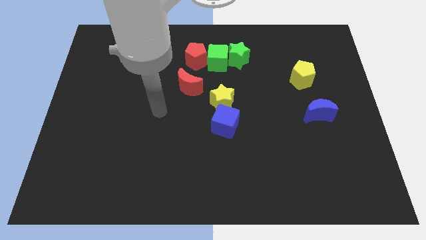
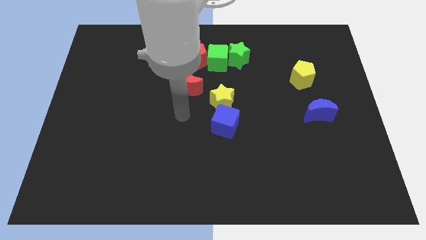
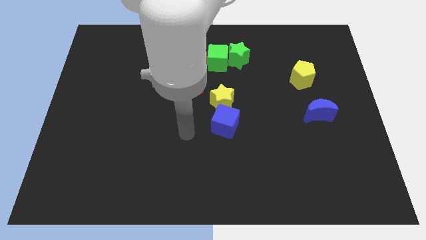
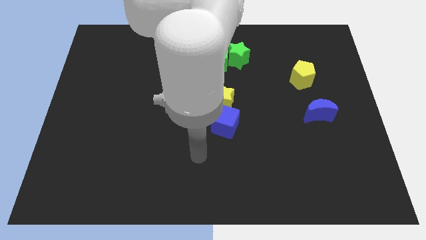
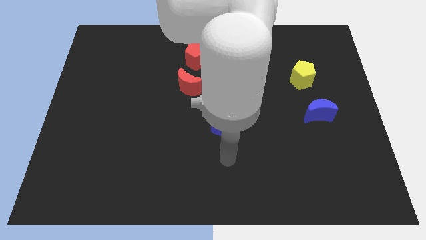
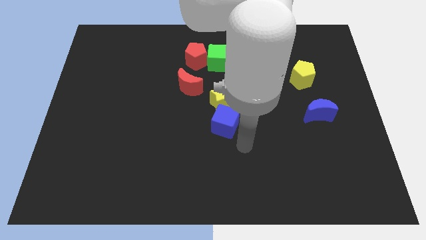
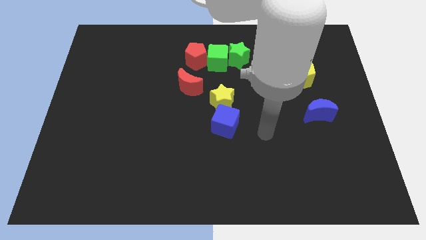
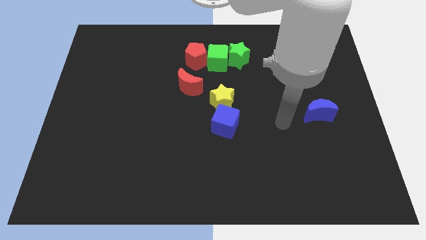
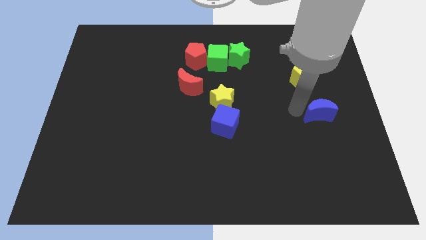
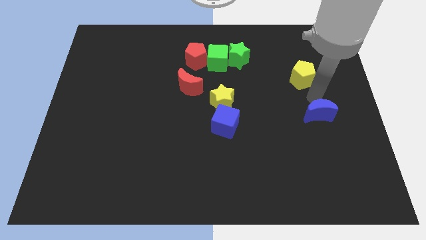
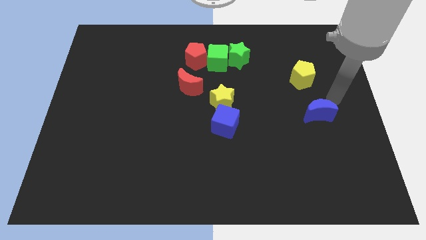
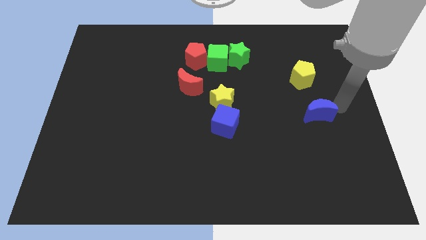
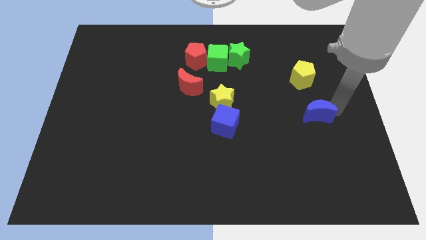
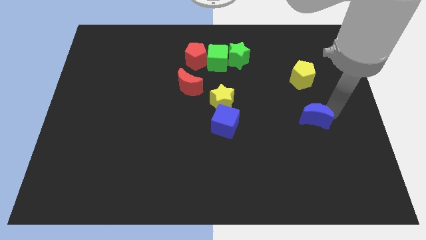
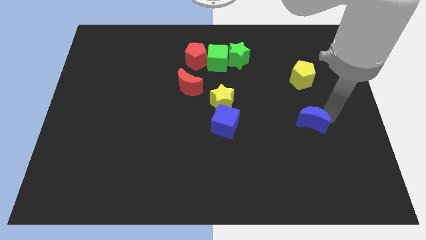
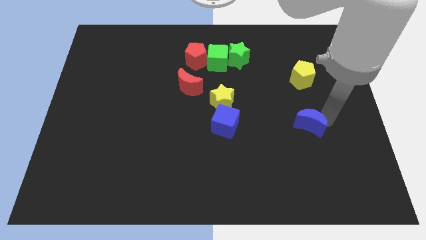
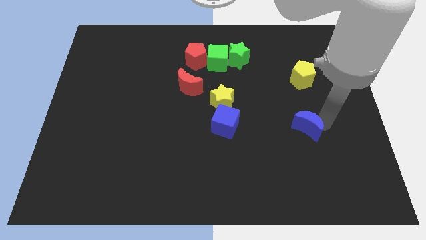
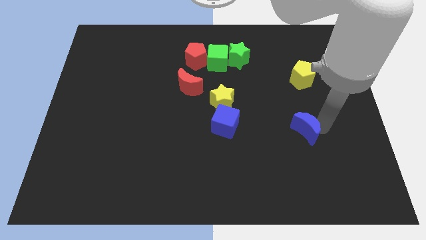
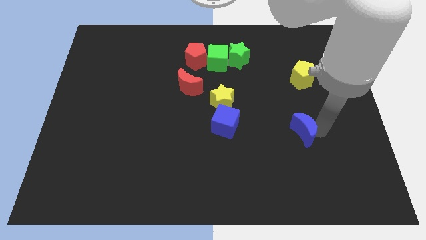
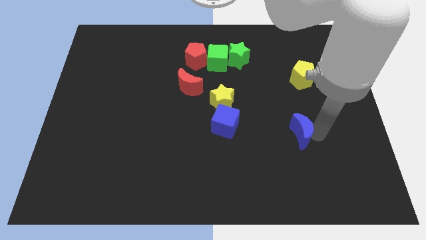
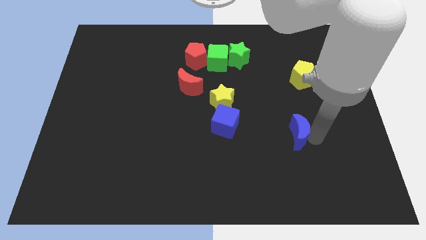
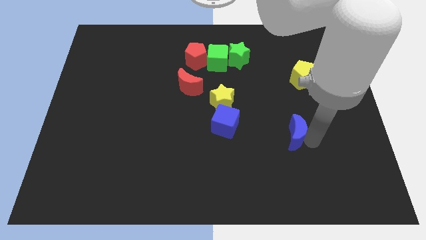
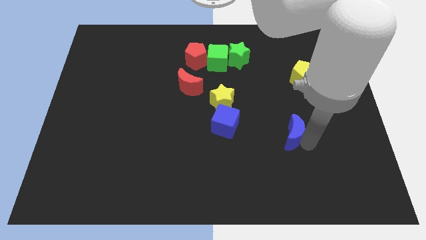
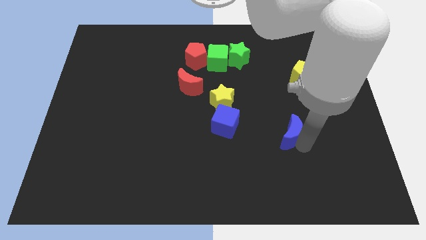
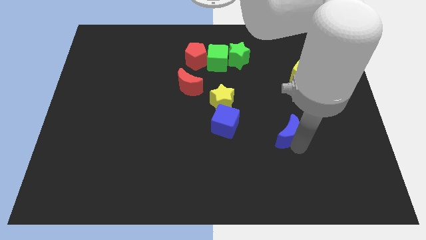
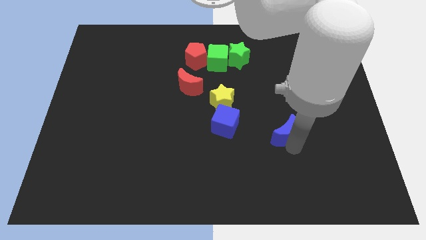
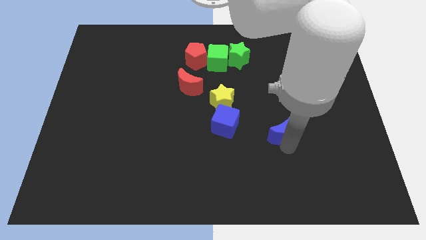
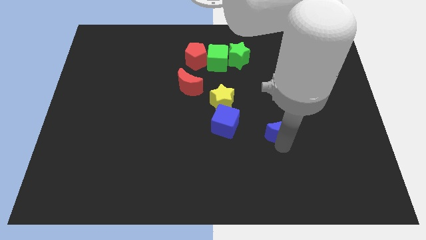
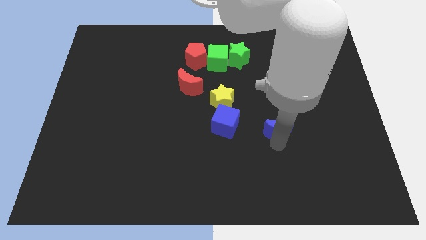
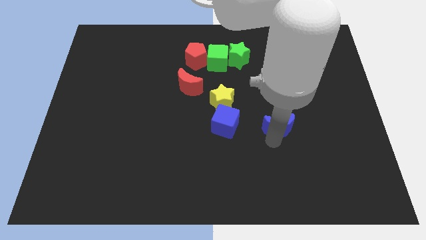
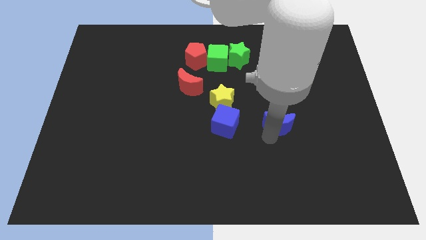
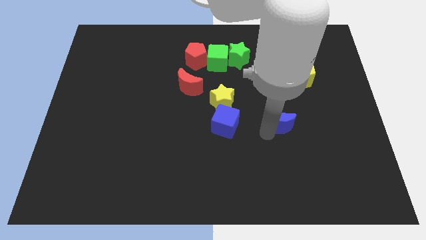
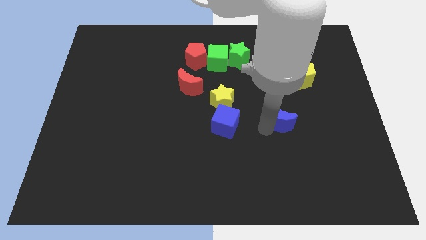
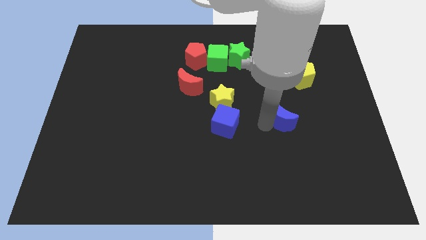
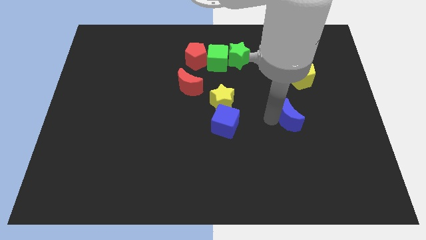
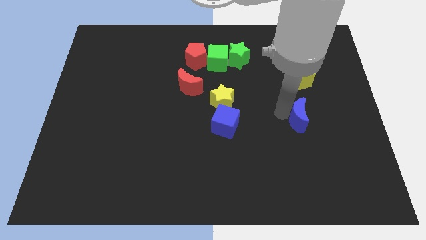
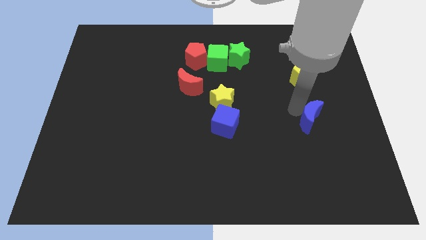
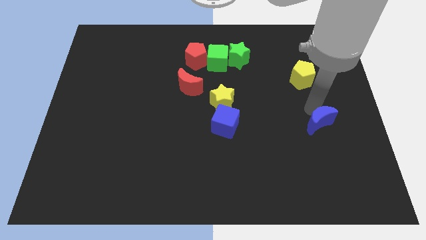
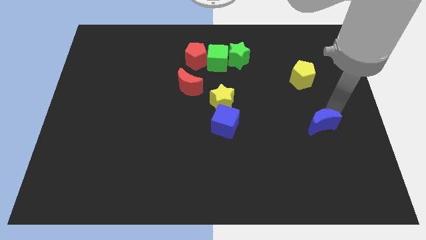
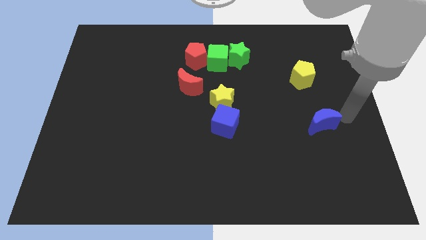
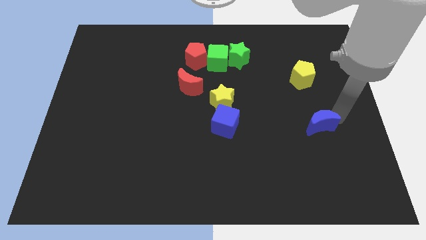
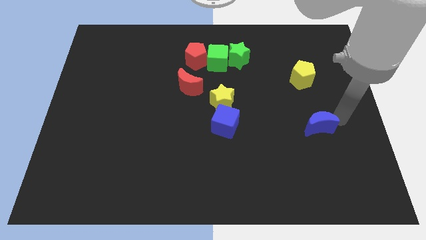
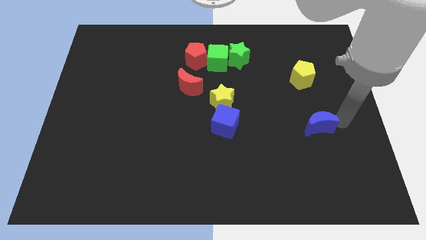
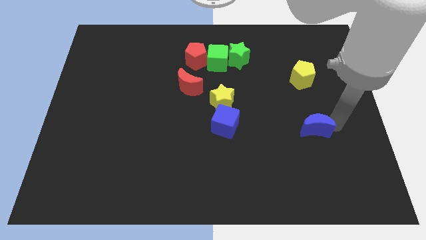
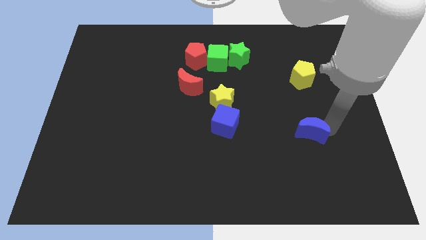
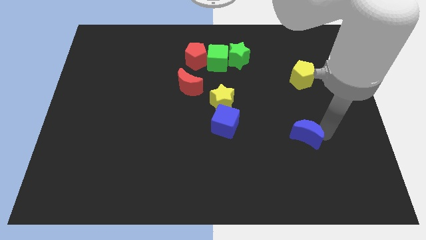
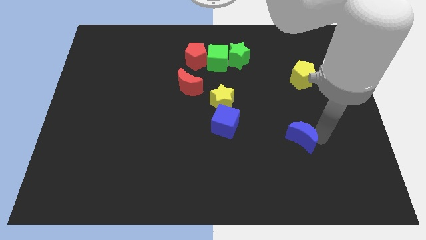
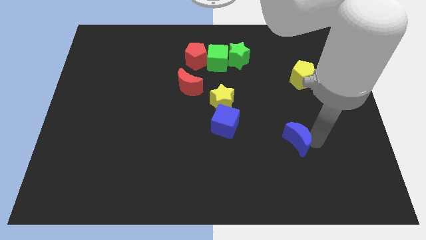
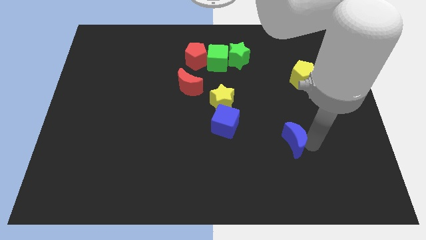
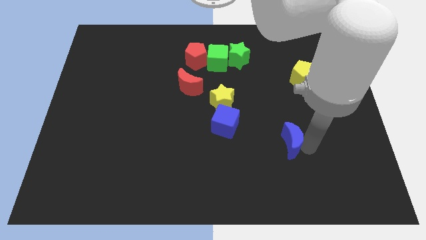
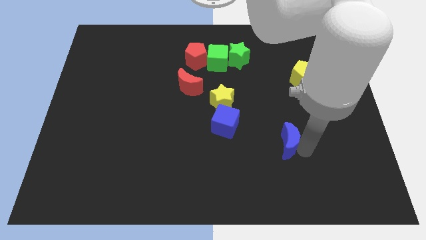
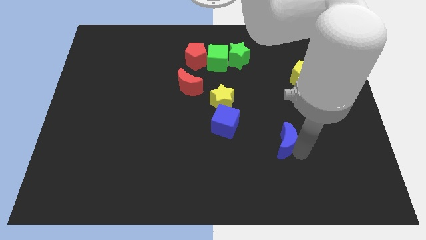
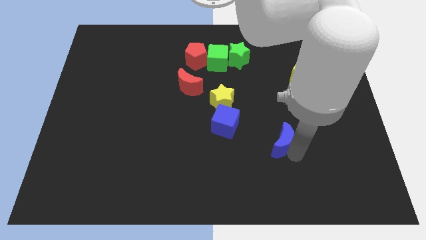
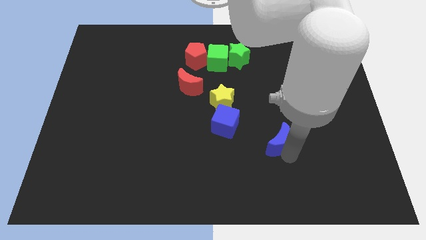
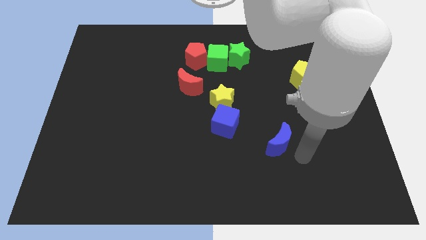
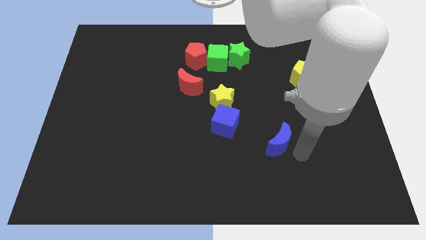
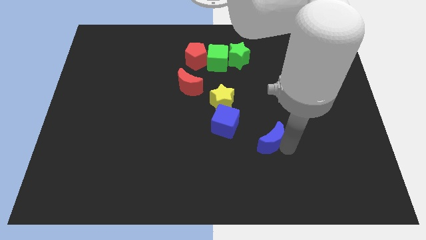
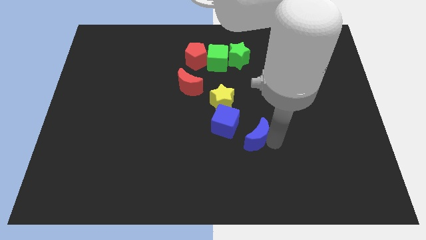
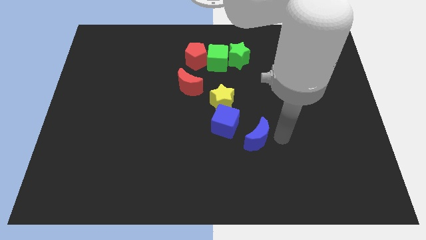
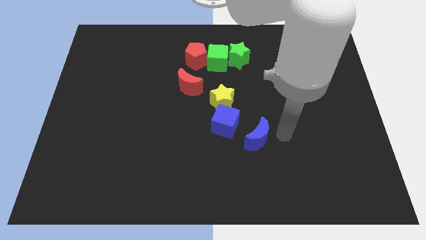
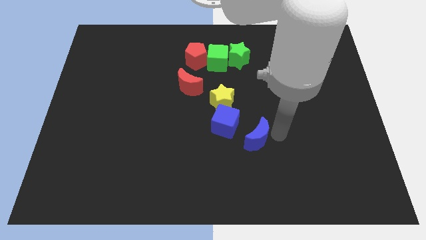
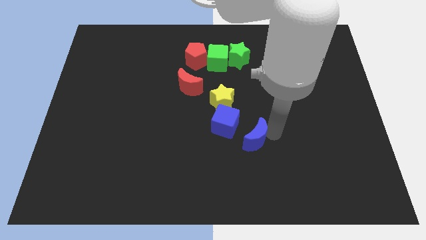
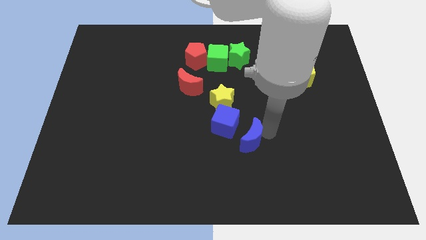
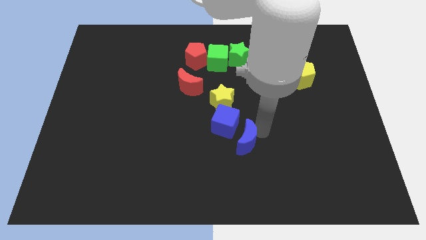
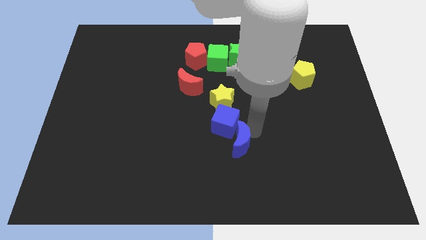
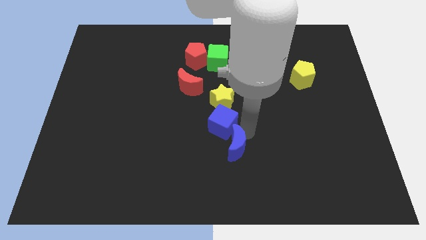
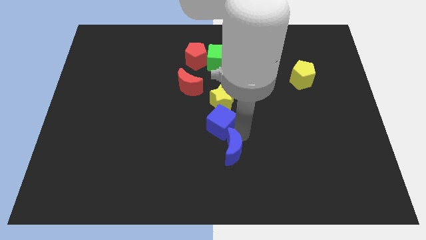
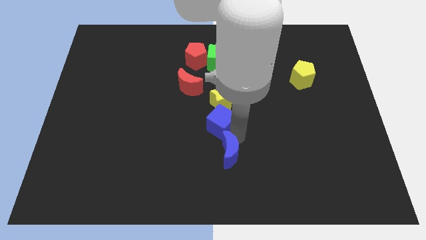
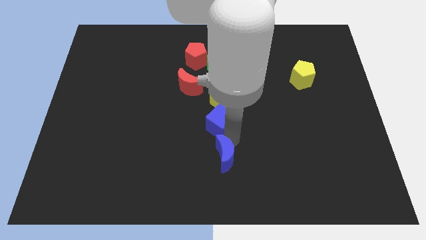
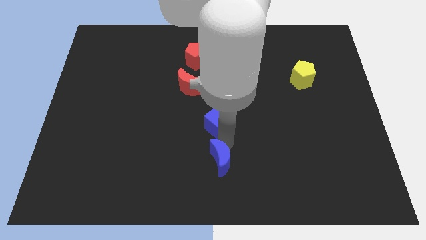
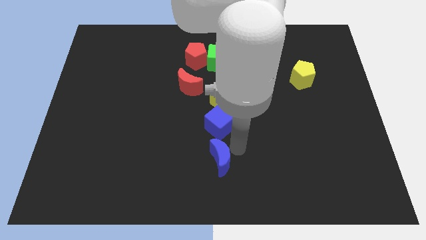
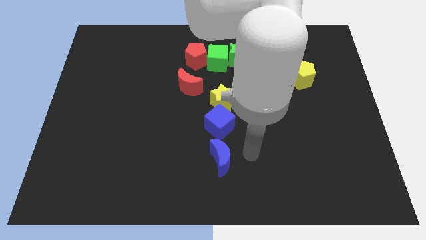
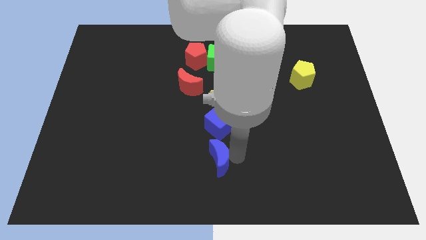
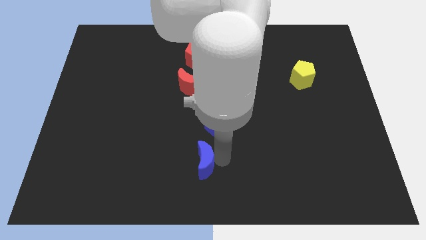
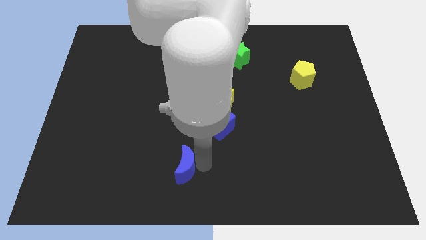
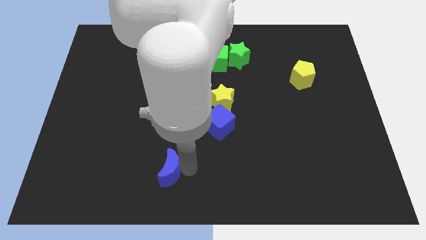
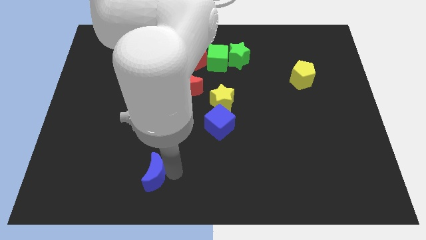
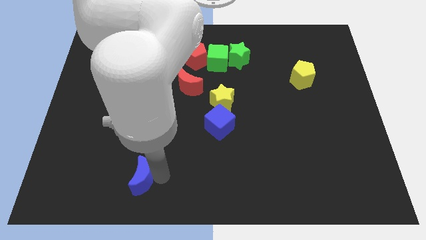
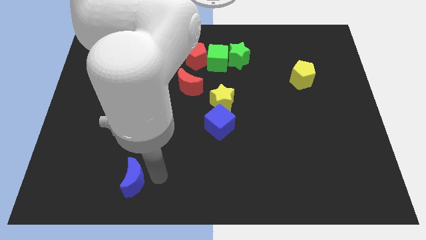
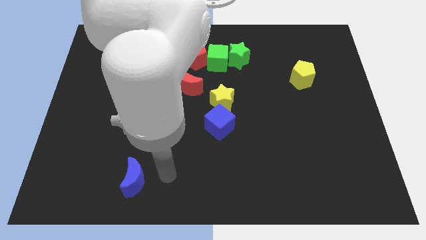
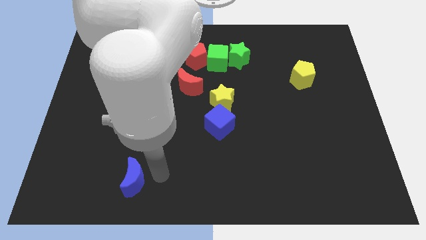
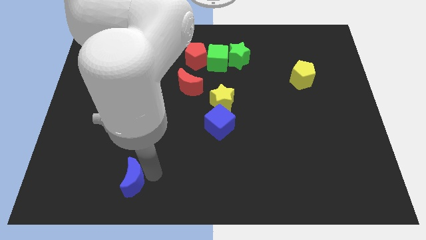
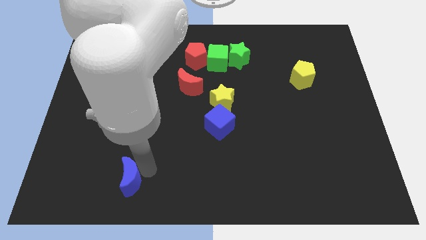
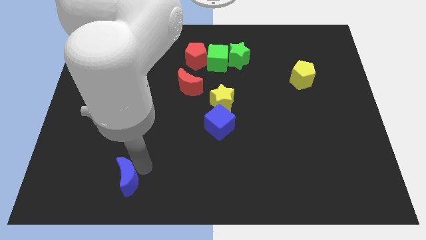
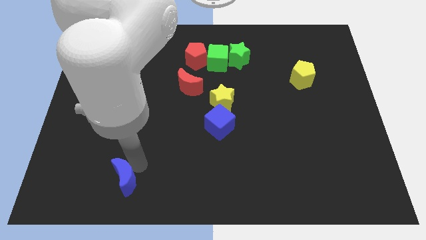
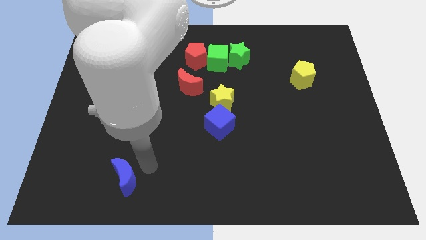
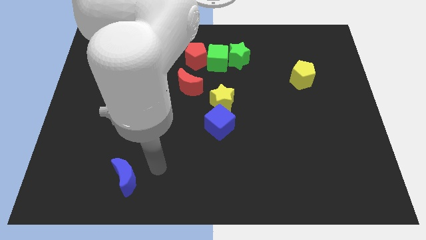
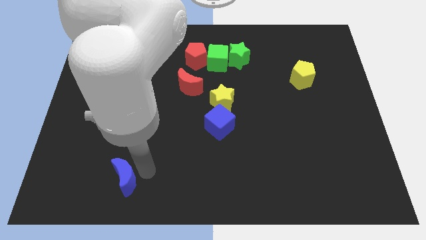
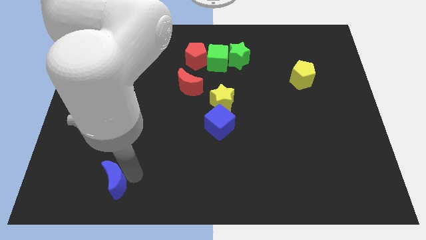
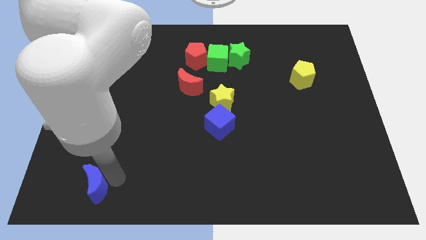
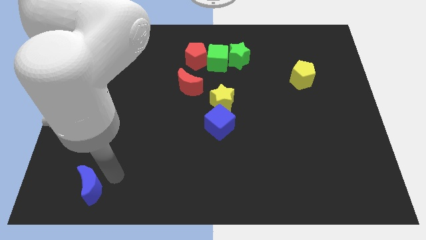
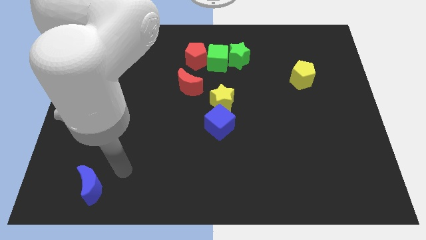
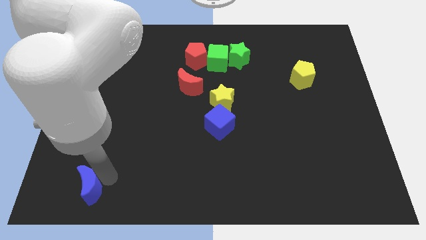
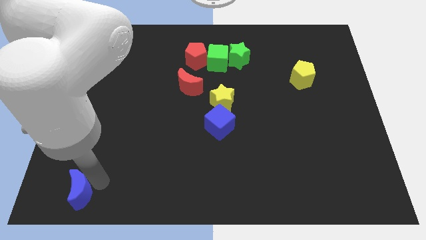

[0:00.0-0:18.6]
push the blue moon to the lower left corner
